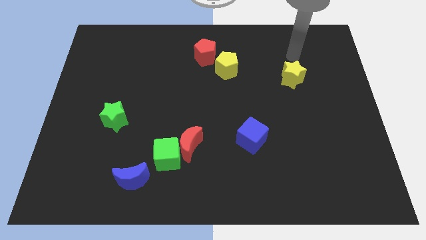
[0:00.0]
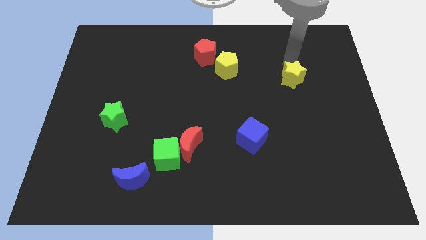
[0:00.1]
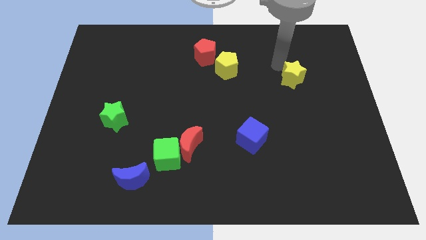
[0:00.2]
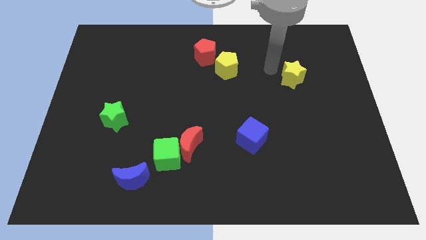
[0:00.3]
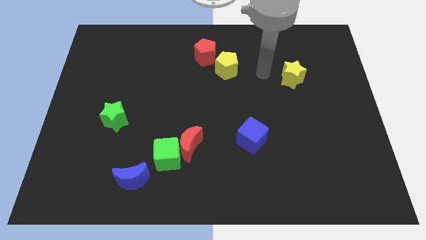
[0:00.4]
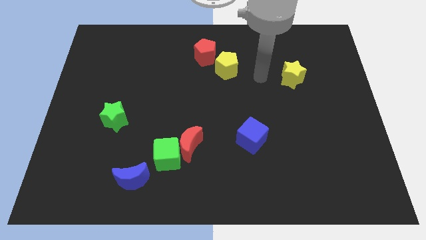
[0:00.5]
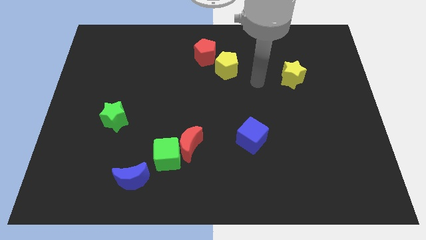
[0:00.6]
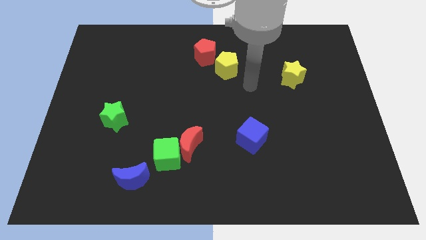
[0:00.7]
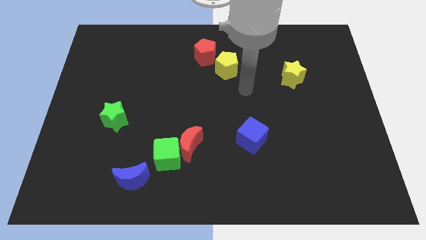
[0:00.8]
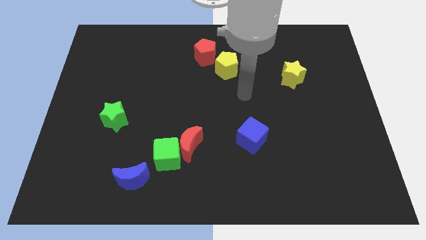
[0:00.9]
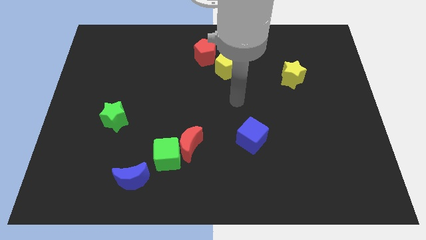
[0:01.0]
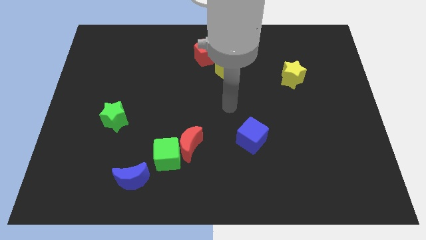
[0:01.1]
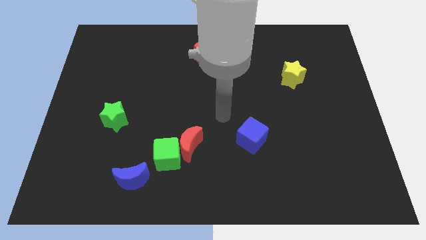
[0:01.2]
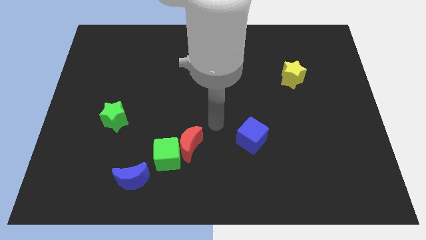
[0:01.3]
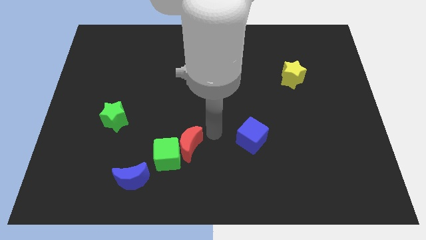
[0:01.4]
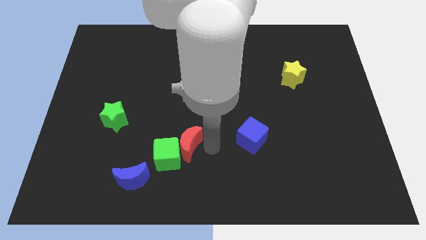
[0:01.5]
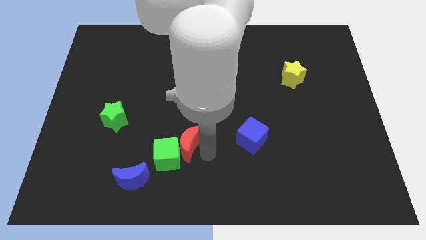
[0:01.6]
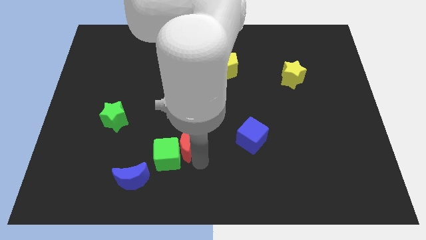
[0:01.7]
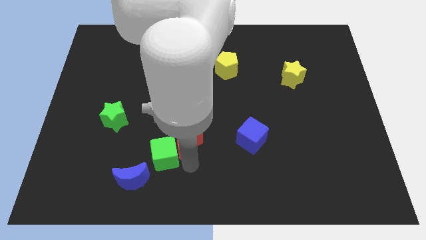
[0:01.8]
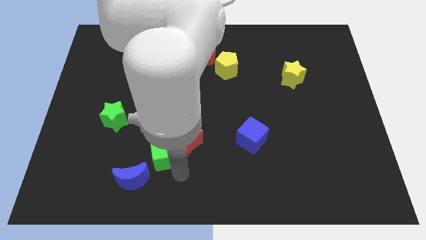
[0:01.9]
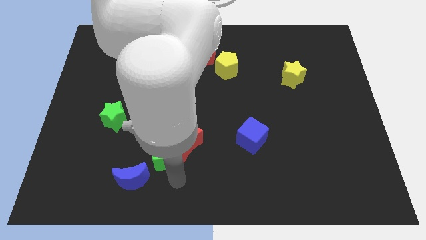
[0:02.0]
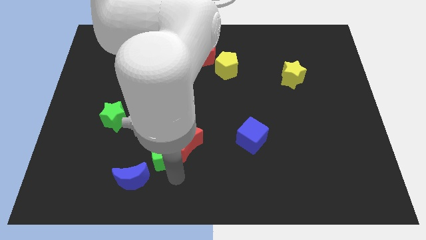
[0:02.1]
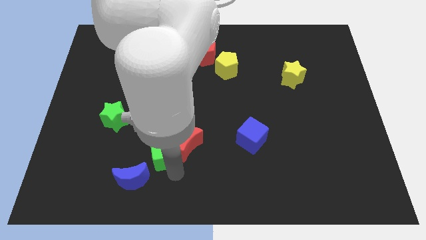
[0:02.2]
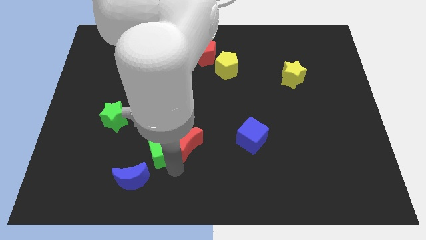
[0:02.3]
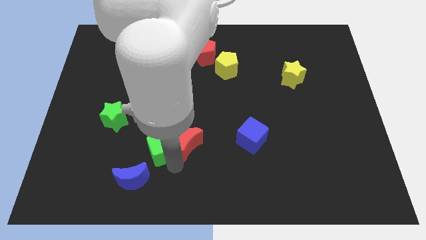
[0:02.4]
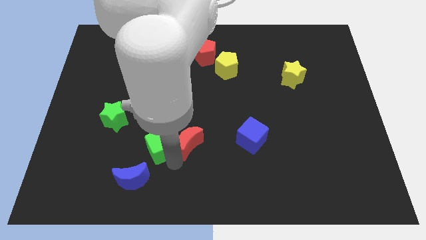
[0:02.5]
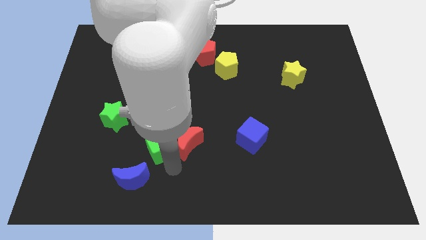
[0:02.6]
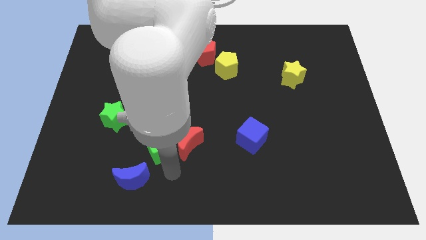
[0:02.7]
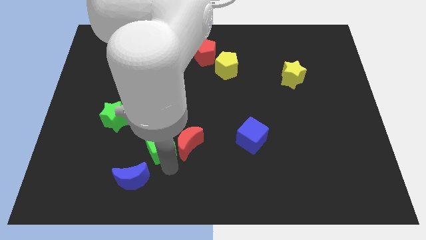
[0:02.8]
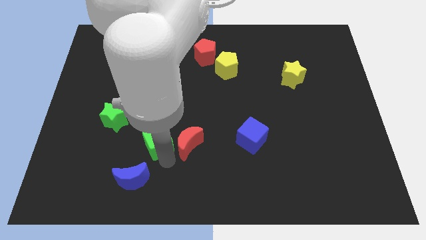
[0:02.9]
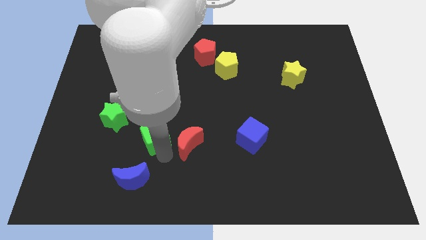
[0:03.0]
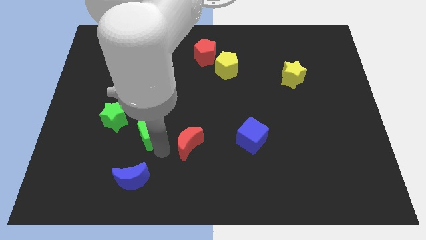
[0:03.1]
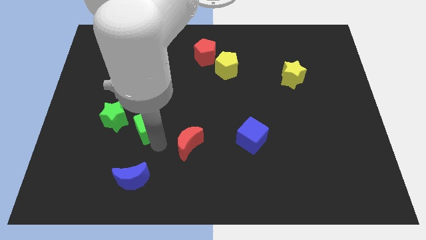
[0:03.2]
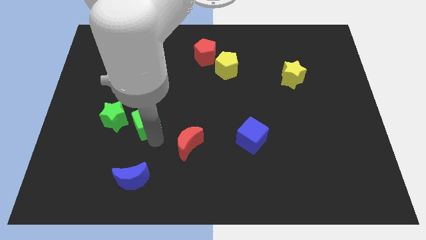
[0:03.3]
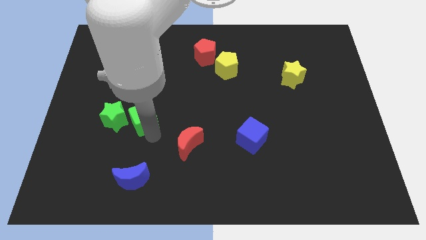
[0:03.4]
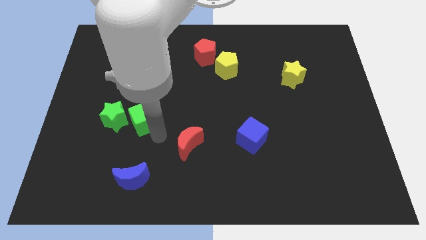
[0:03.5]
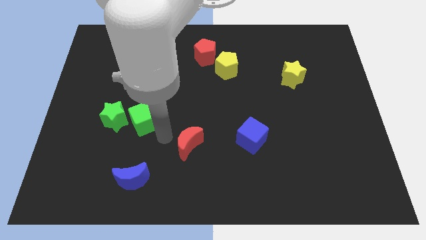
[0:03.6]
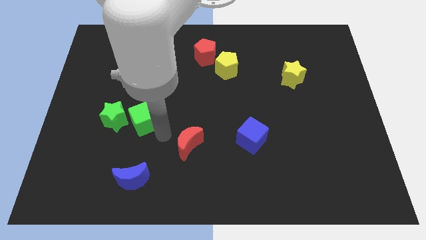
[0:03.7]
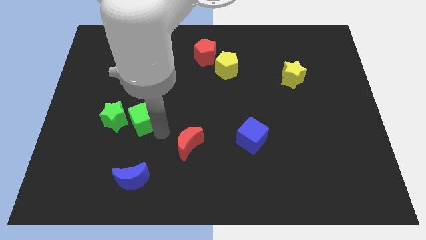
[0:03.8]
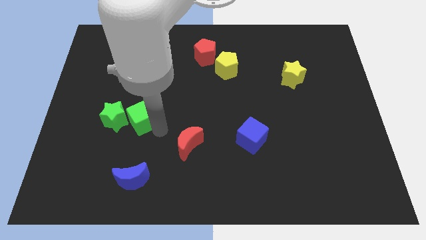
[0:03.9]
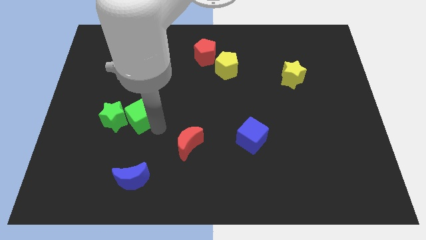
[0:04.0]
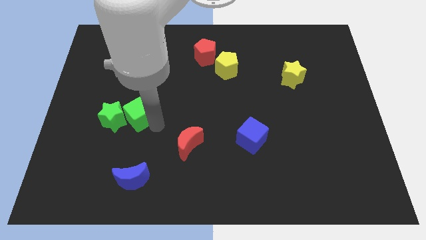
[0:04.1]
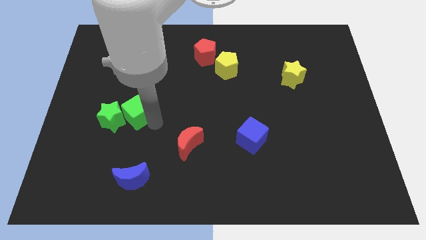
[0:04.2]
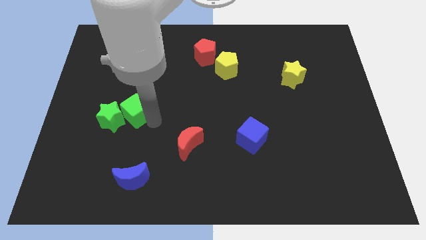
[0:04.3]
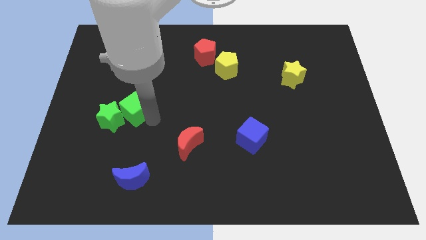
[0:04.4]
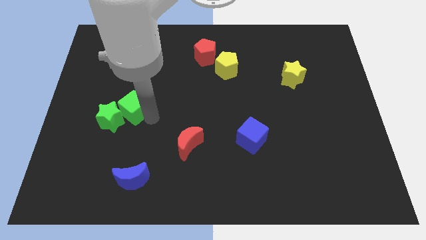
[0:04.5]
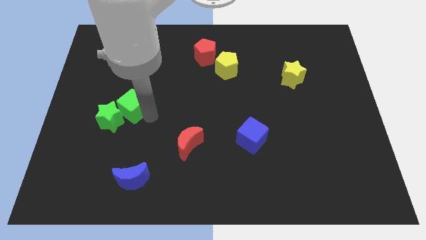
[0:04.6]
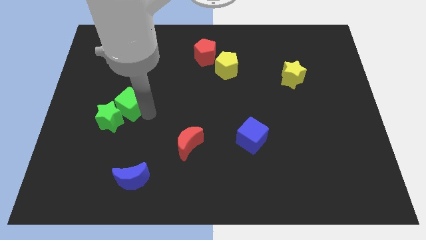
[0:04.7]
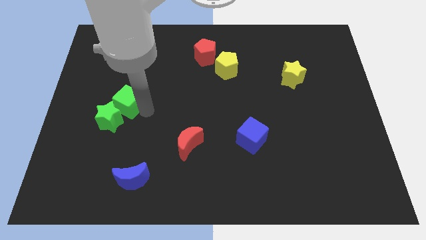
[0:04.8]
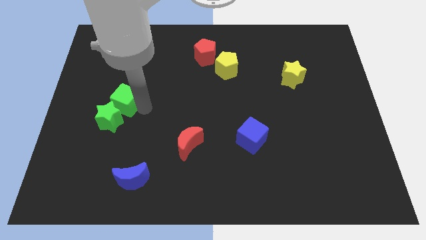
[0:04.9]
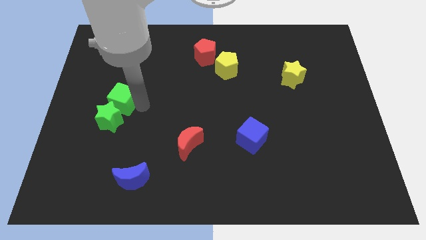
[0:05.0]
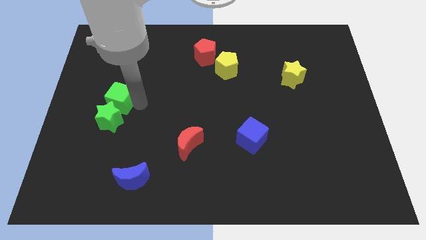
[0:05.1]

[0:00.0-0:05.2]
put the green cube to the top left of the green star

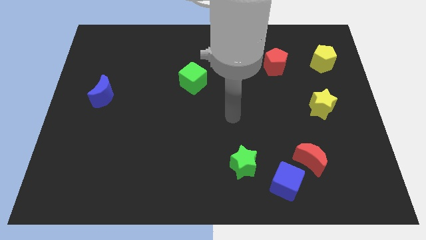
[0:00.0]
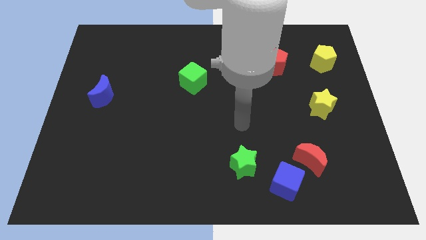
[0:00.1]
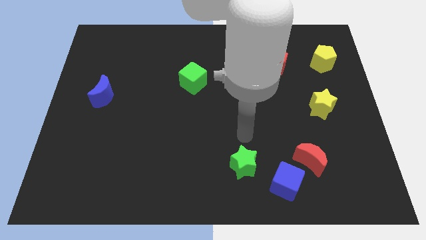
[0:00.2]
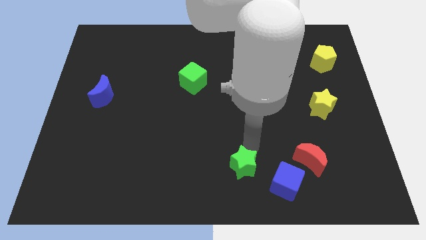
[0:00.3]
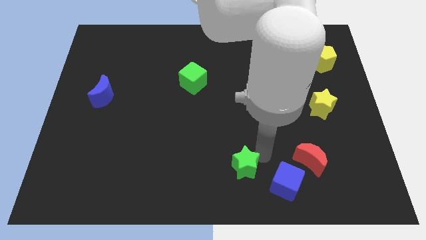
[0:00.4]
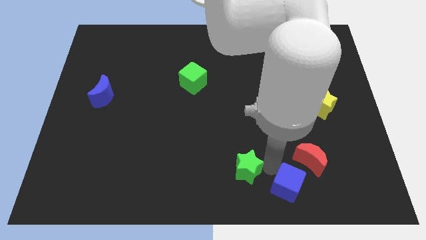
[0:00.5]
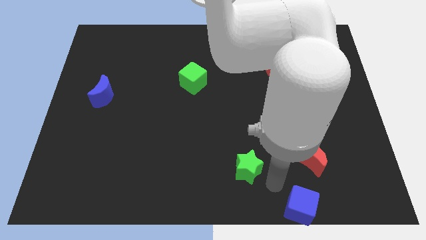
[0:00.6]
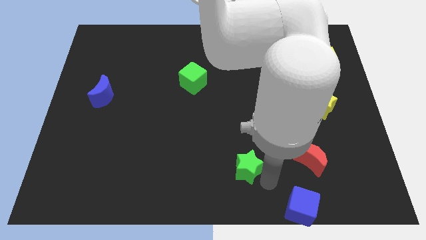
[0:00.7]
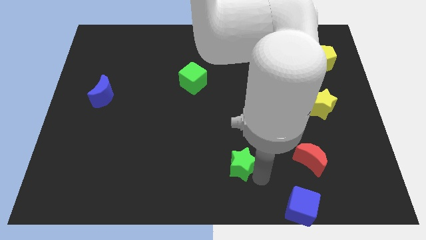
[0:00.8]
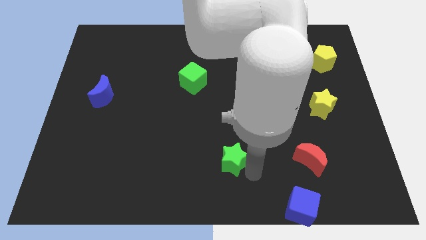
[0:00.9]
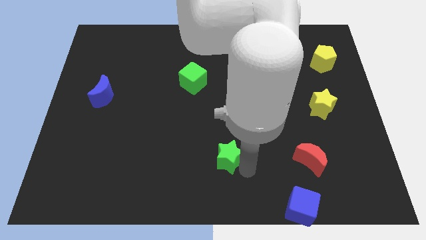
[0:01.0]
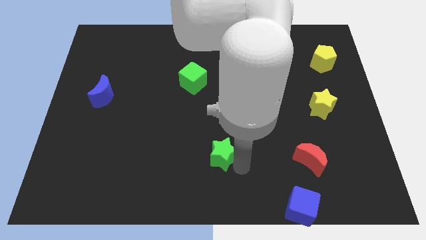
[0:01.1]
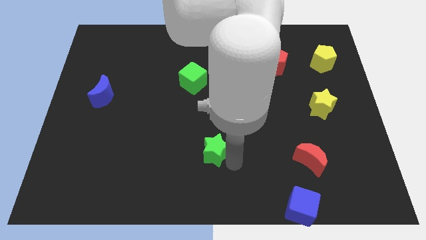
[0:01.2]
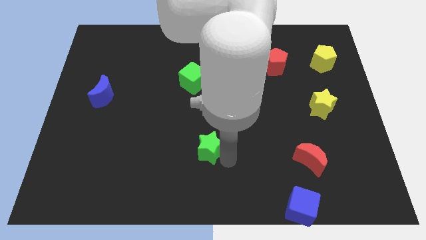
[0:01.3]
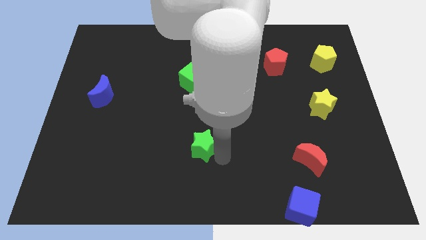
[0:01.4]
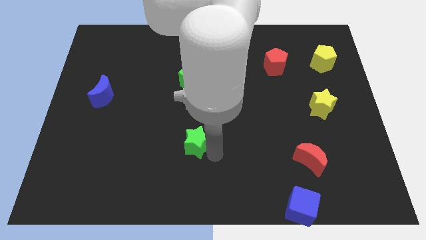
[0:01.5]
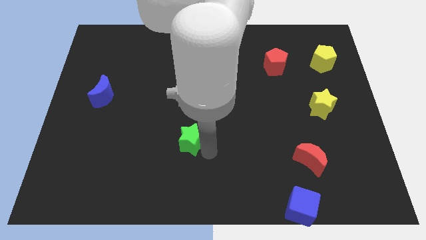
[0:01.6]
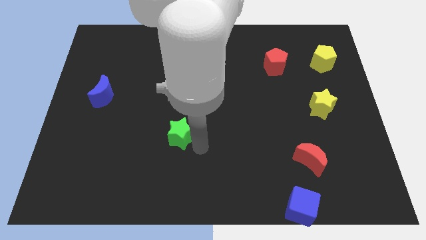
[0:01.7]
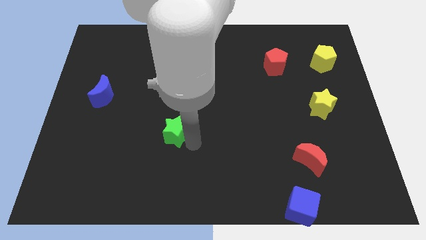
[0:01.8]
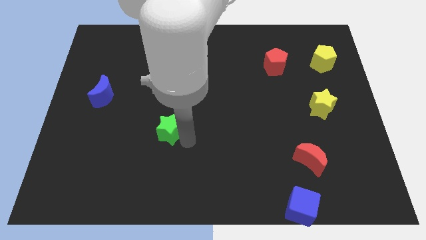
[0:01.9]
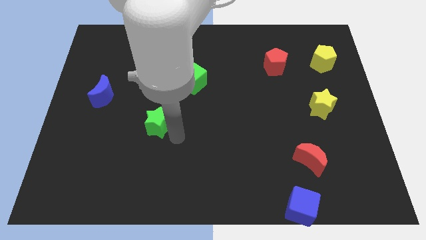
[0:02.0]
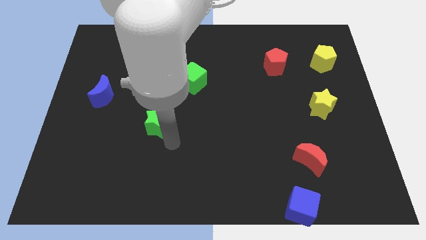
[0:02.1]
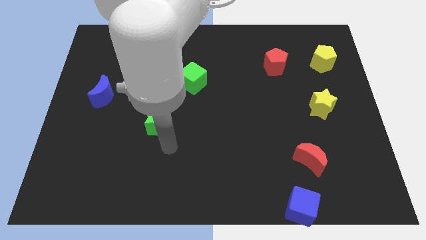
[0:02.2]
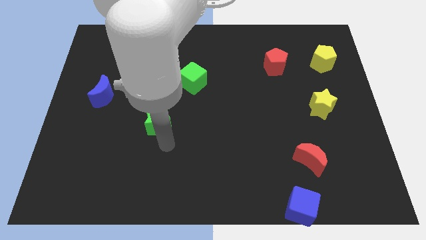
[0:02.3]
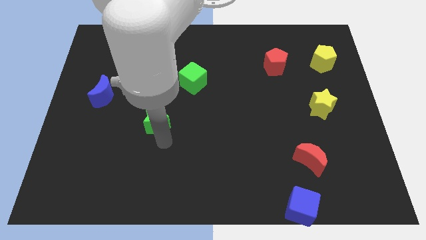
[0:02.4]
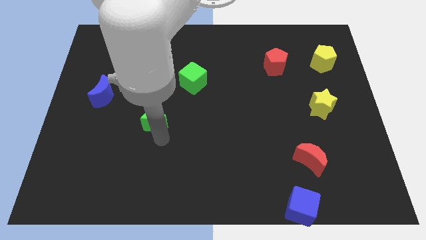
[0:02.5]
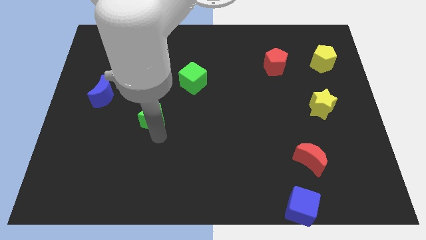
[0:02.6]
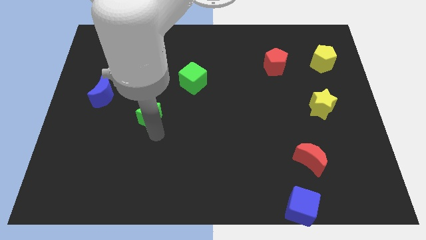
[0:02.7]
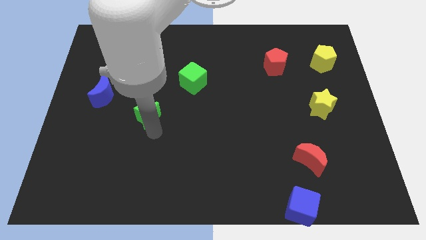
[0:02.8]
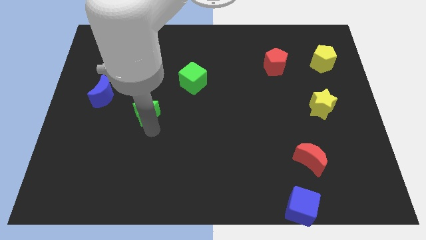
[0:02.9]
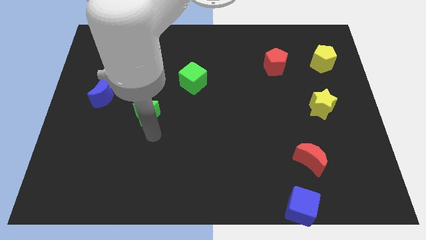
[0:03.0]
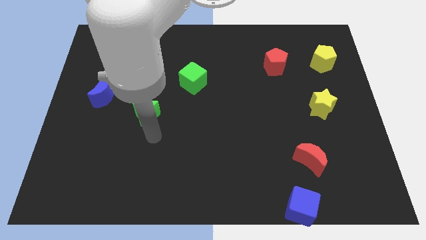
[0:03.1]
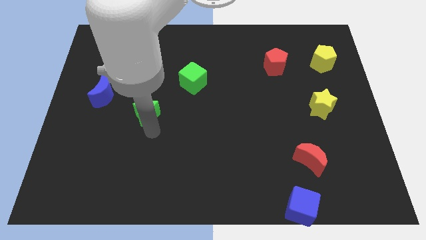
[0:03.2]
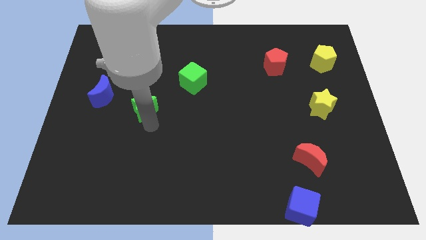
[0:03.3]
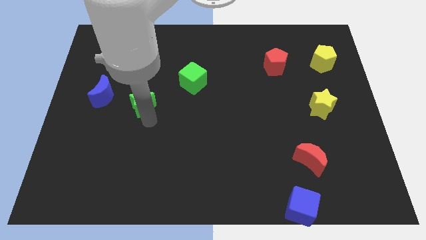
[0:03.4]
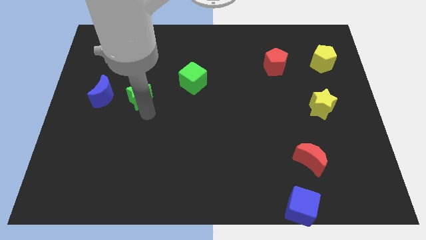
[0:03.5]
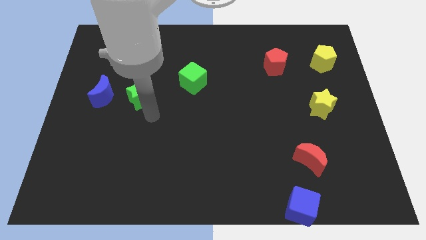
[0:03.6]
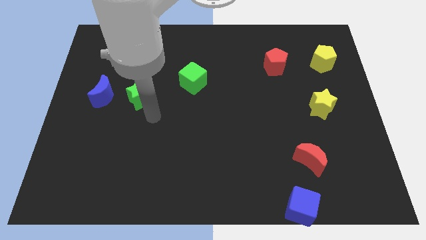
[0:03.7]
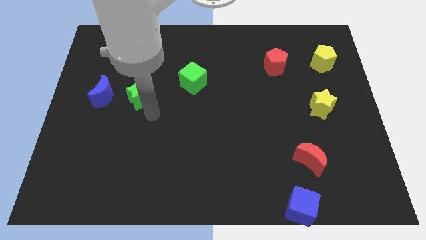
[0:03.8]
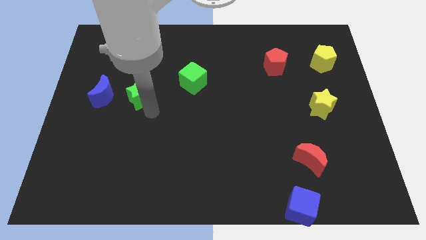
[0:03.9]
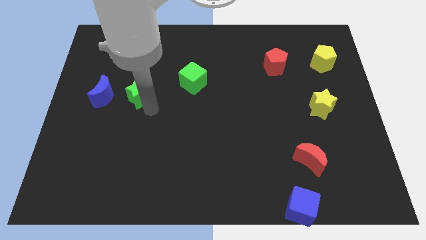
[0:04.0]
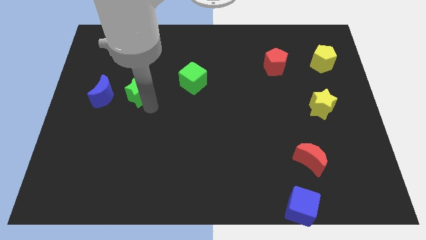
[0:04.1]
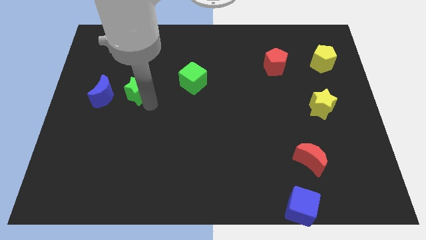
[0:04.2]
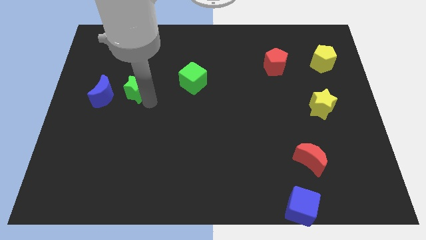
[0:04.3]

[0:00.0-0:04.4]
slide the green star diagonally up and to the right of the blue moon
